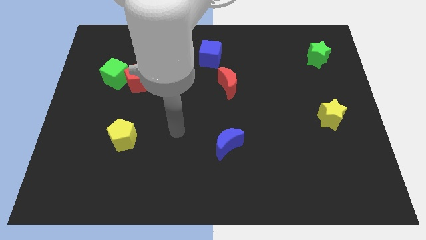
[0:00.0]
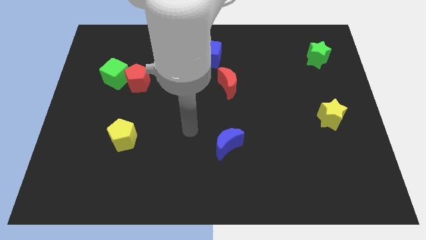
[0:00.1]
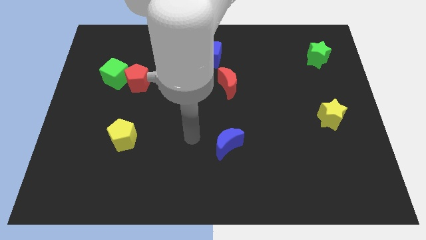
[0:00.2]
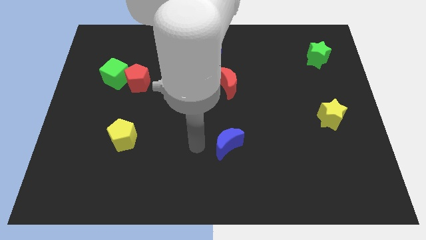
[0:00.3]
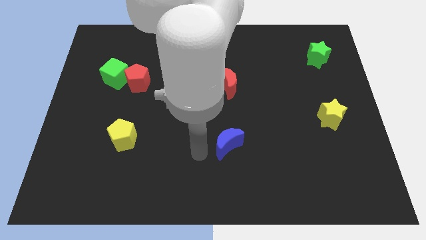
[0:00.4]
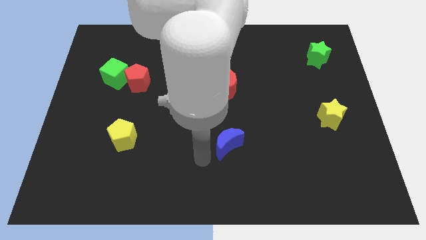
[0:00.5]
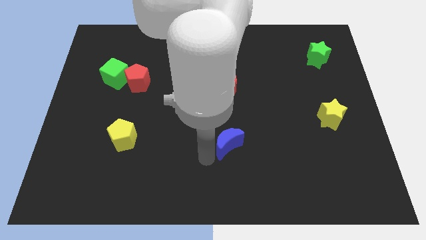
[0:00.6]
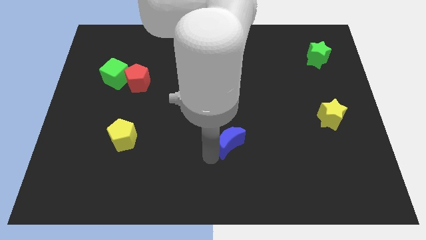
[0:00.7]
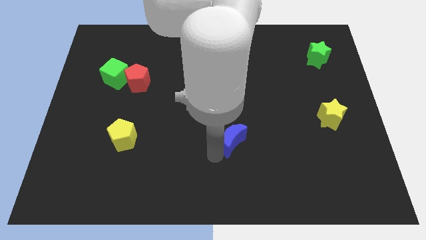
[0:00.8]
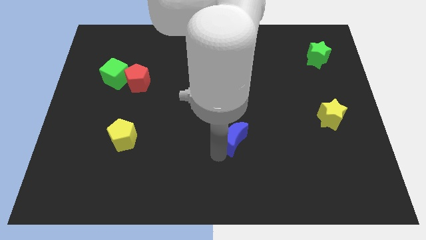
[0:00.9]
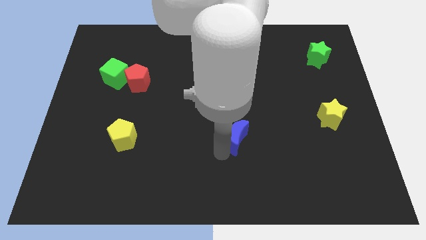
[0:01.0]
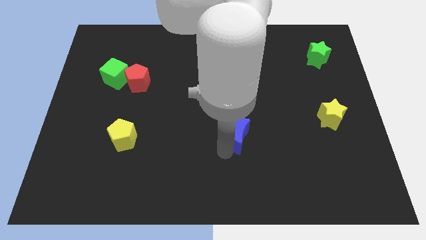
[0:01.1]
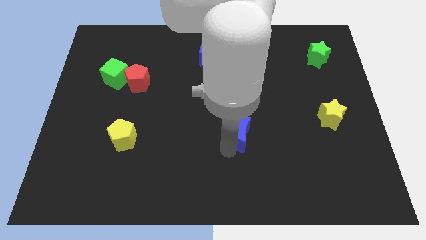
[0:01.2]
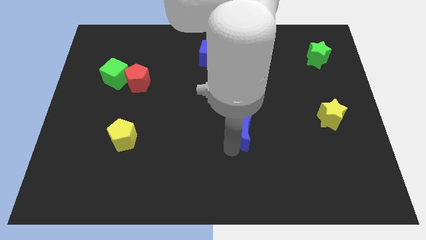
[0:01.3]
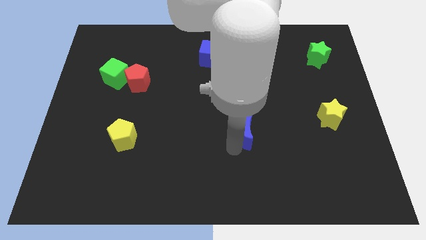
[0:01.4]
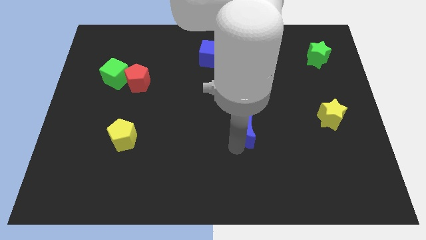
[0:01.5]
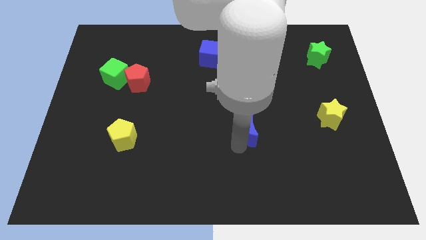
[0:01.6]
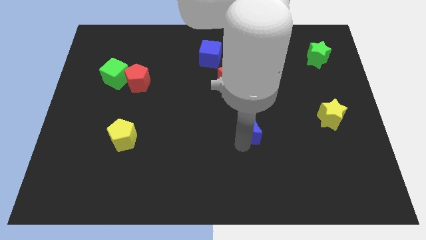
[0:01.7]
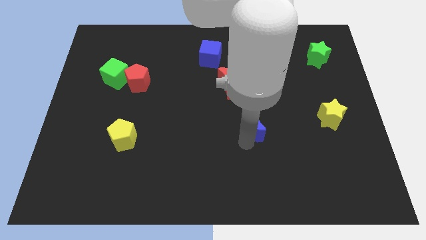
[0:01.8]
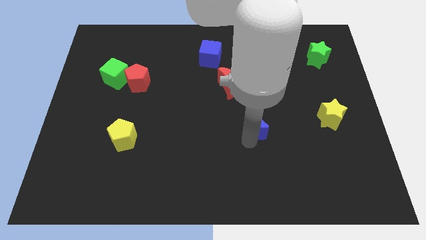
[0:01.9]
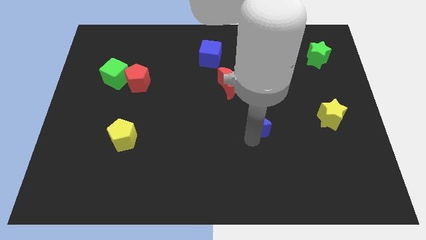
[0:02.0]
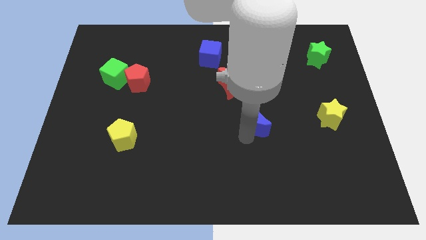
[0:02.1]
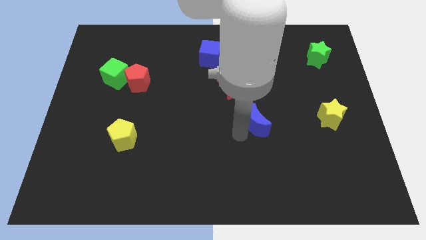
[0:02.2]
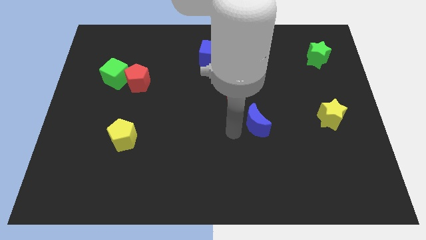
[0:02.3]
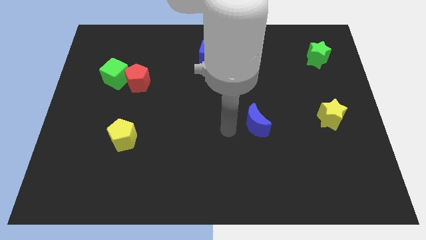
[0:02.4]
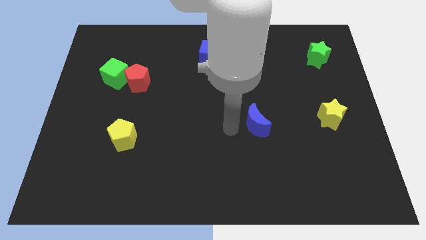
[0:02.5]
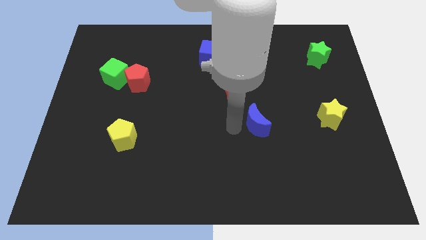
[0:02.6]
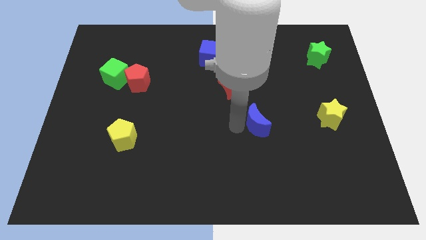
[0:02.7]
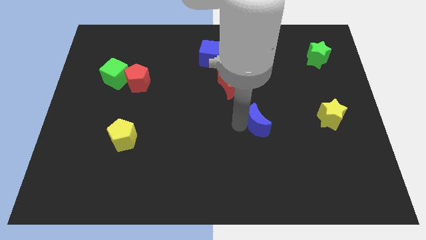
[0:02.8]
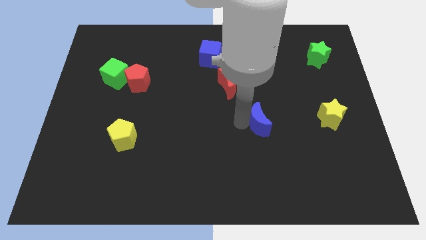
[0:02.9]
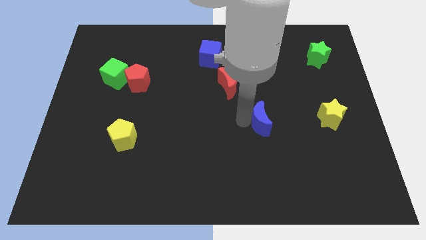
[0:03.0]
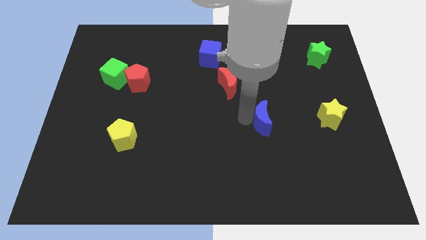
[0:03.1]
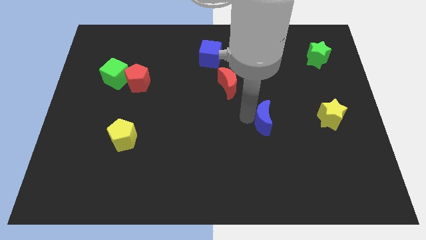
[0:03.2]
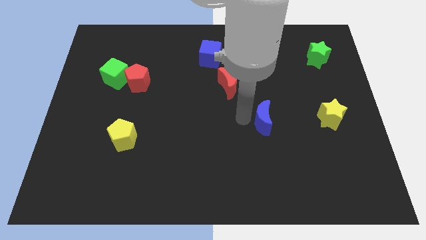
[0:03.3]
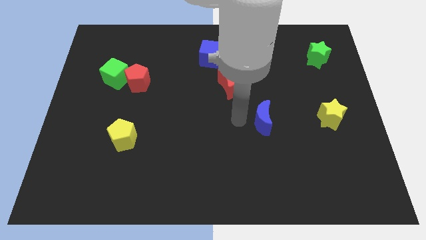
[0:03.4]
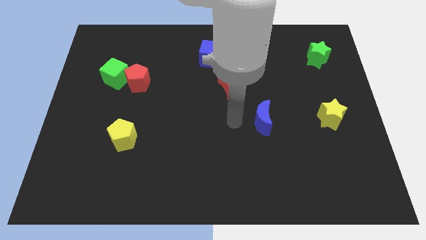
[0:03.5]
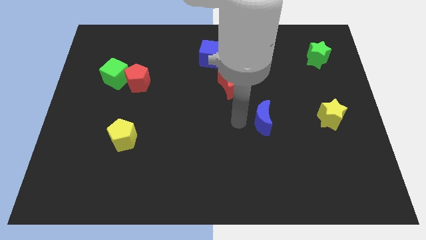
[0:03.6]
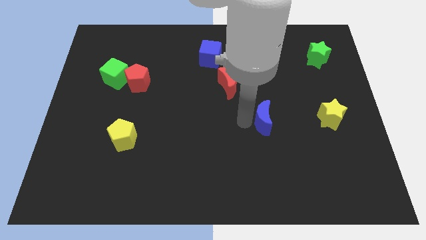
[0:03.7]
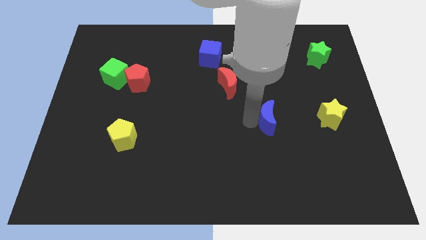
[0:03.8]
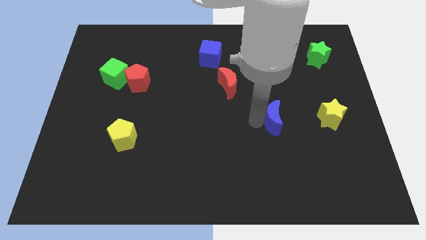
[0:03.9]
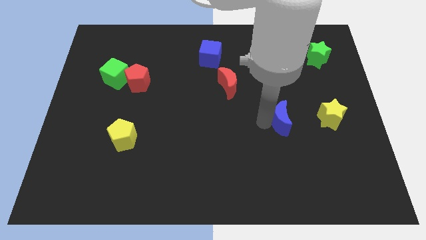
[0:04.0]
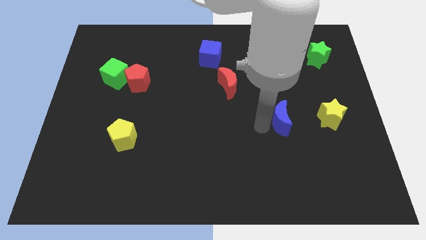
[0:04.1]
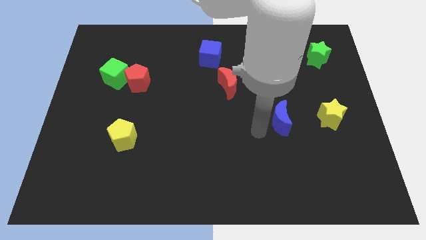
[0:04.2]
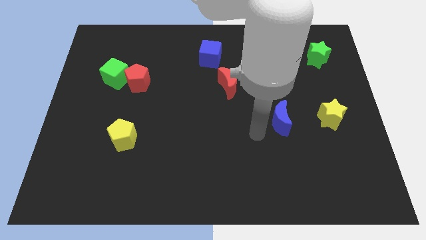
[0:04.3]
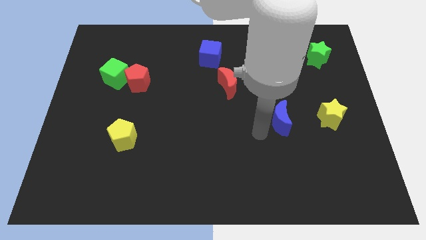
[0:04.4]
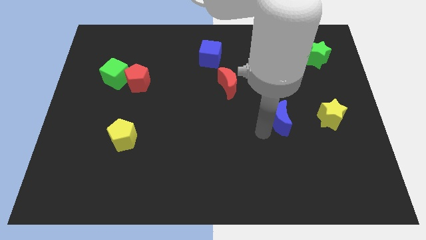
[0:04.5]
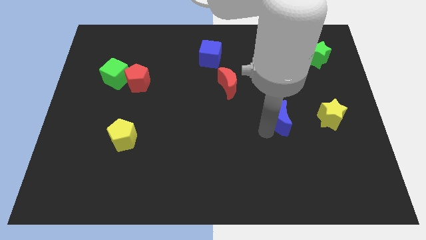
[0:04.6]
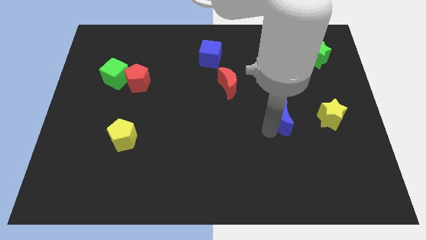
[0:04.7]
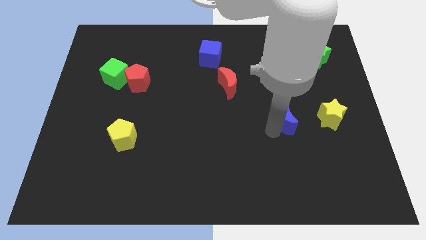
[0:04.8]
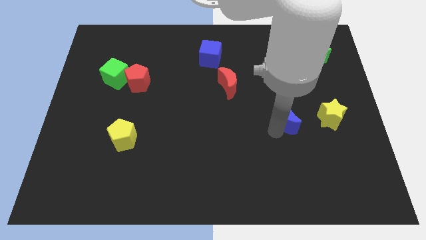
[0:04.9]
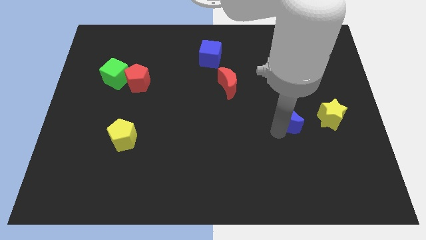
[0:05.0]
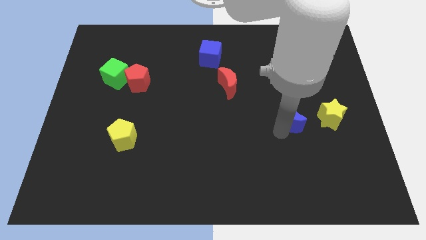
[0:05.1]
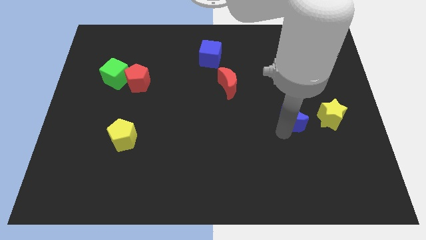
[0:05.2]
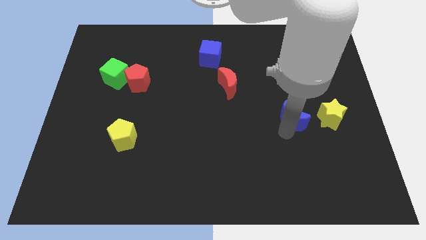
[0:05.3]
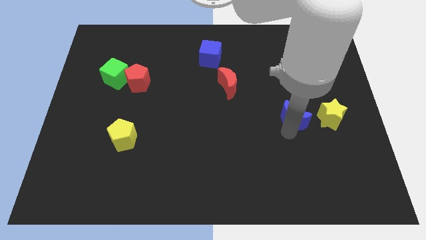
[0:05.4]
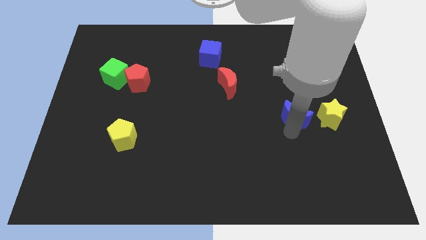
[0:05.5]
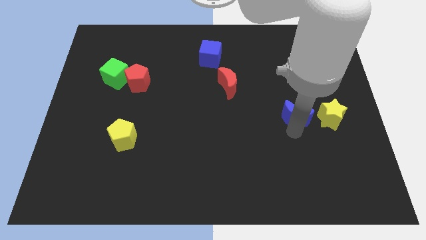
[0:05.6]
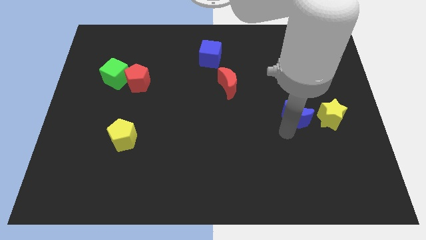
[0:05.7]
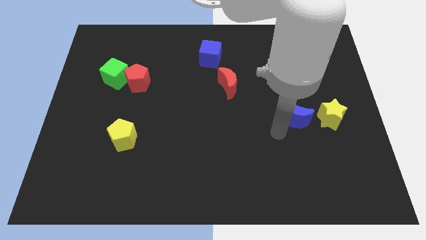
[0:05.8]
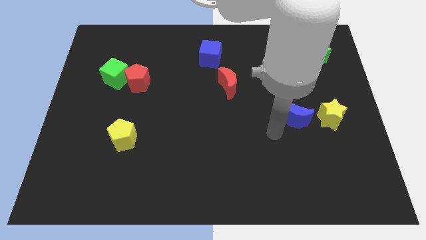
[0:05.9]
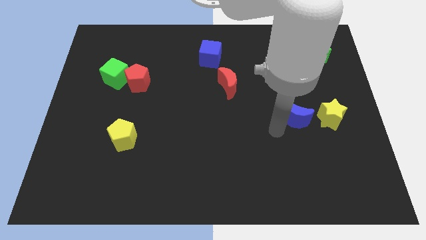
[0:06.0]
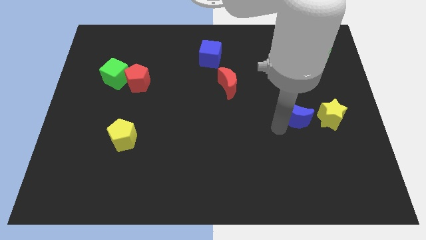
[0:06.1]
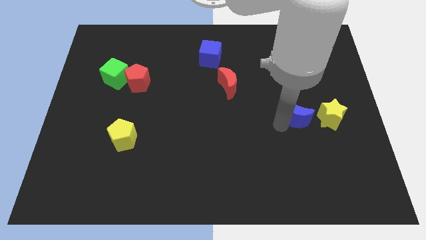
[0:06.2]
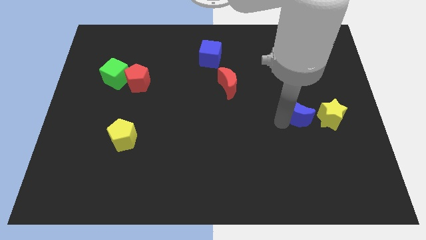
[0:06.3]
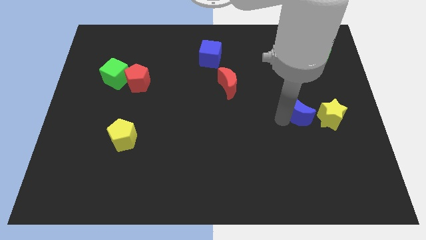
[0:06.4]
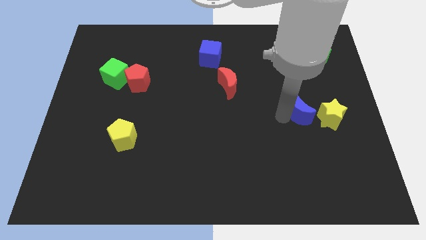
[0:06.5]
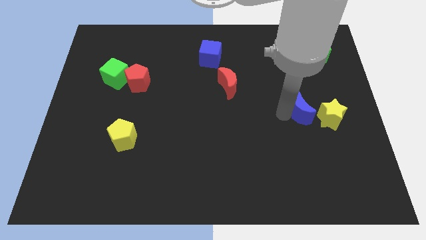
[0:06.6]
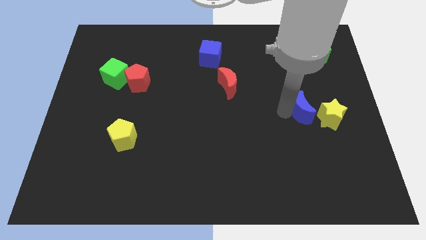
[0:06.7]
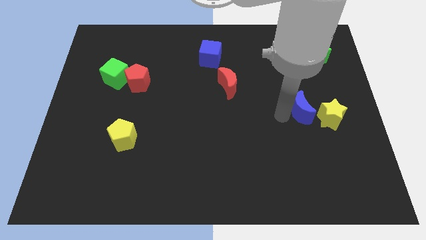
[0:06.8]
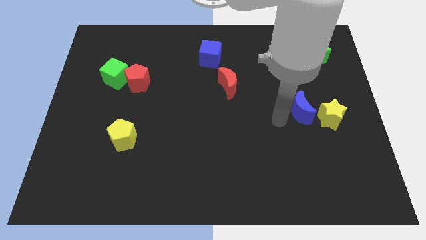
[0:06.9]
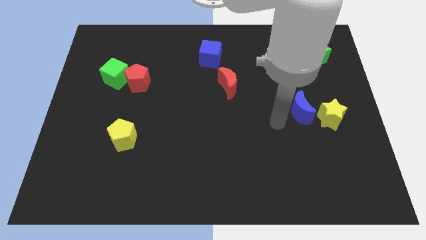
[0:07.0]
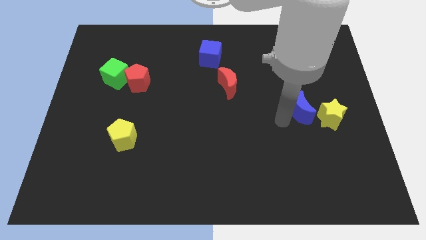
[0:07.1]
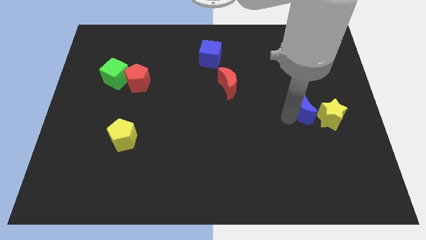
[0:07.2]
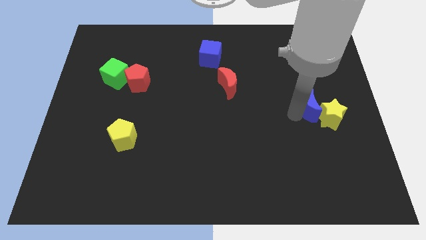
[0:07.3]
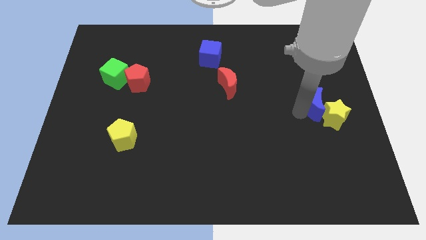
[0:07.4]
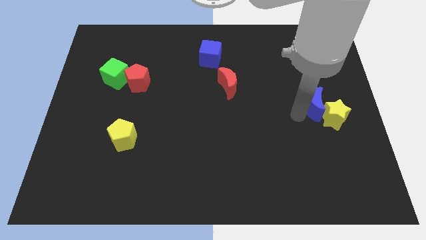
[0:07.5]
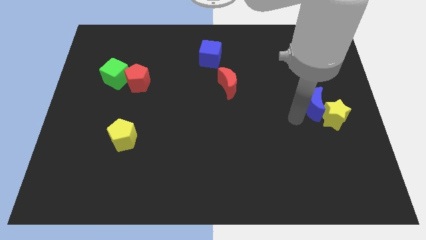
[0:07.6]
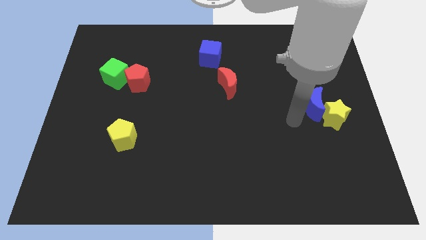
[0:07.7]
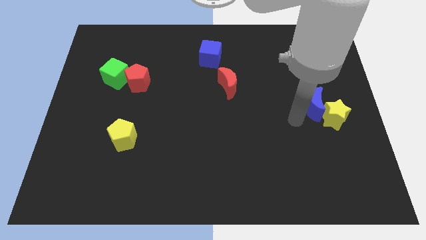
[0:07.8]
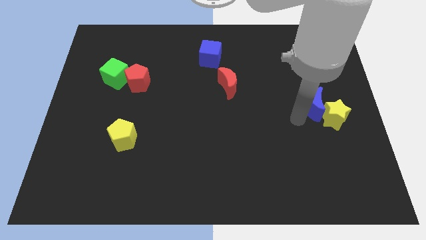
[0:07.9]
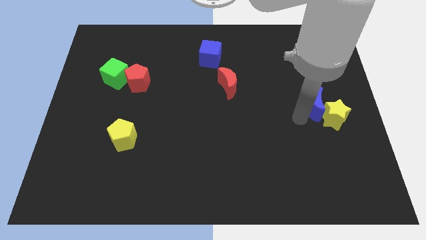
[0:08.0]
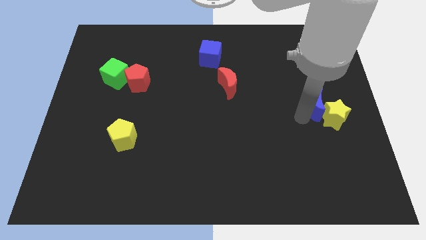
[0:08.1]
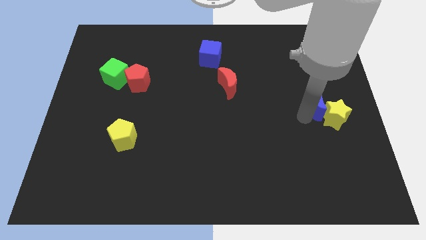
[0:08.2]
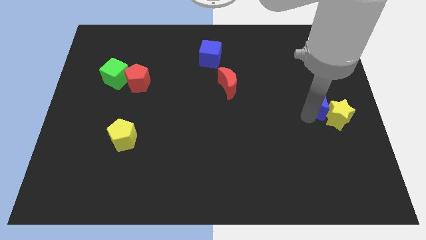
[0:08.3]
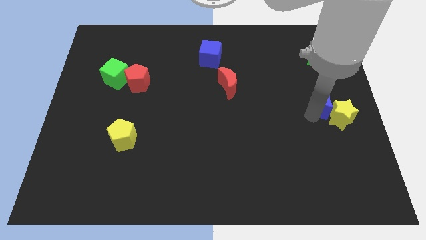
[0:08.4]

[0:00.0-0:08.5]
slide the blue moon to the right side of the board
